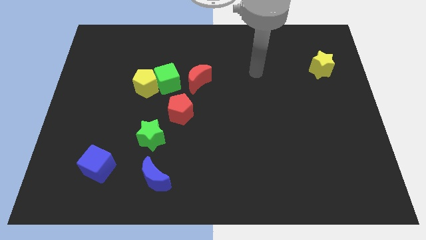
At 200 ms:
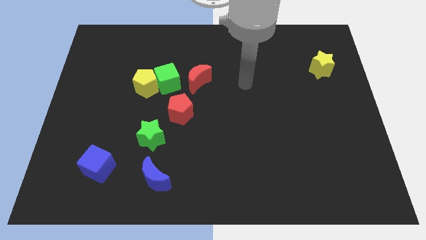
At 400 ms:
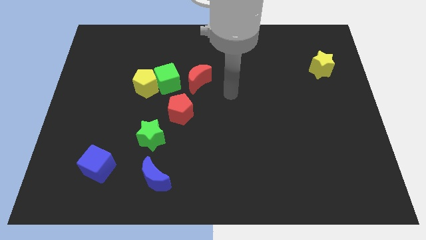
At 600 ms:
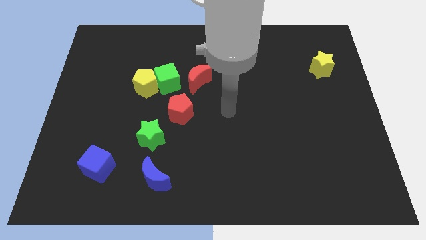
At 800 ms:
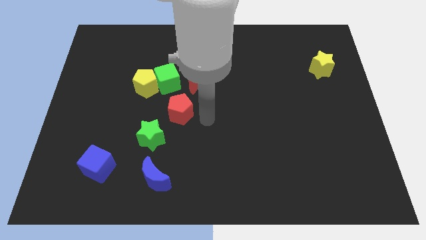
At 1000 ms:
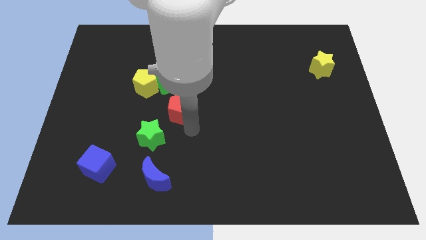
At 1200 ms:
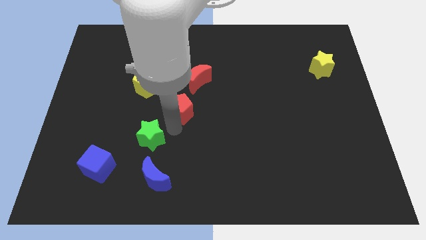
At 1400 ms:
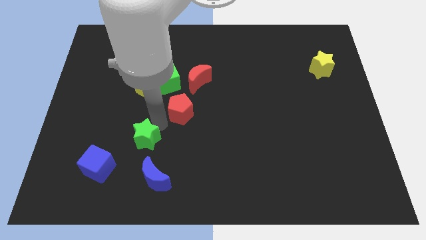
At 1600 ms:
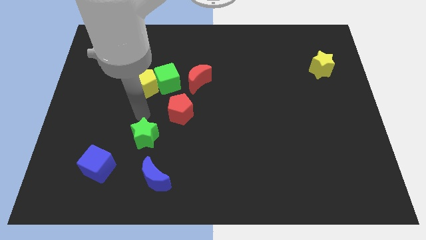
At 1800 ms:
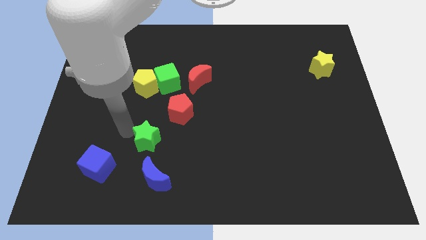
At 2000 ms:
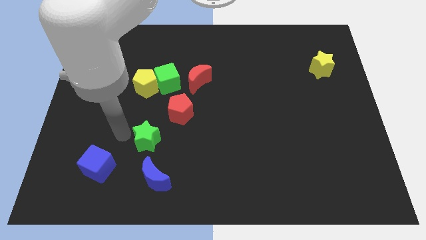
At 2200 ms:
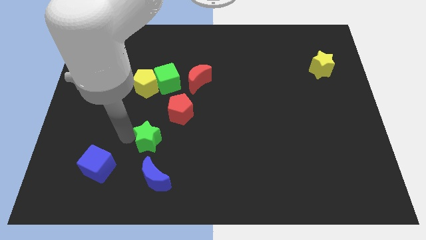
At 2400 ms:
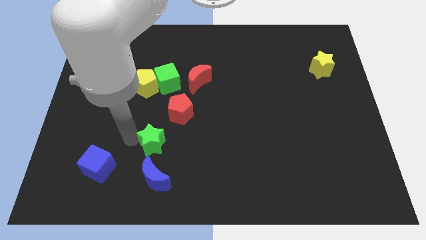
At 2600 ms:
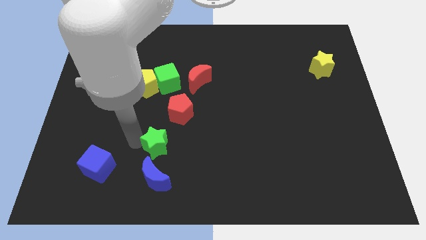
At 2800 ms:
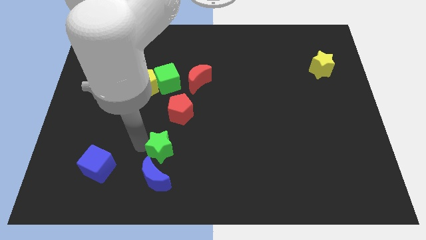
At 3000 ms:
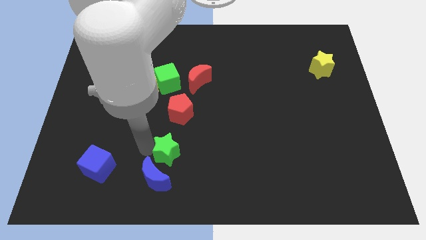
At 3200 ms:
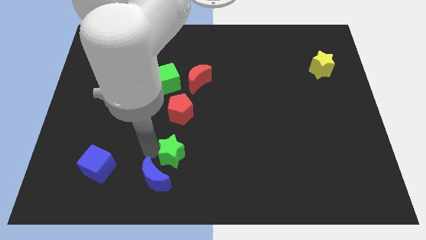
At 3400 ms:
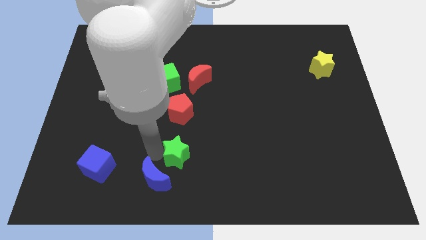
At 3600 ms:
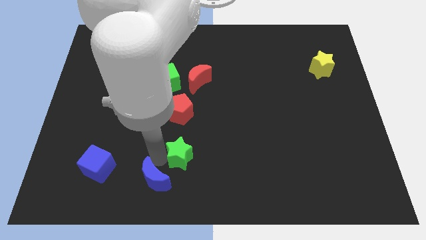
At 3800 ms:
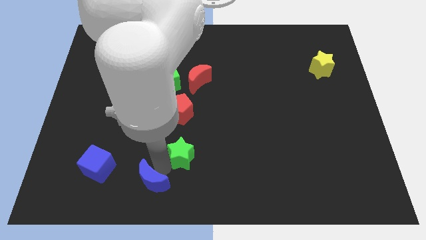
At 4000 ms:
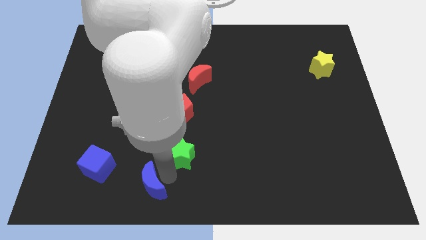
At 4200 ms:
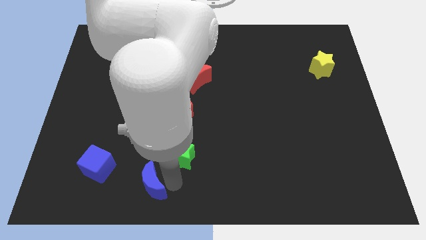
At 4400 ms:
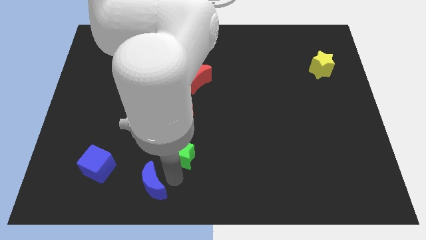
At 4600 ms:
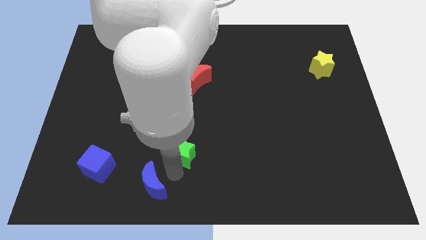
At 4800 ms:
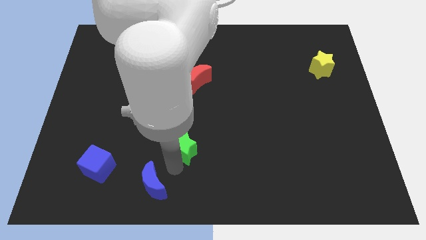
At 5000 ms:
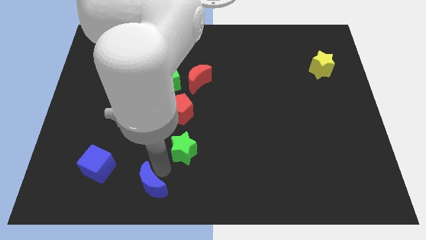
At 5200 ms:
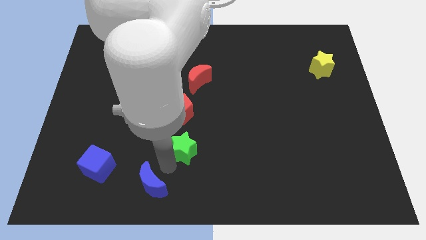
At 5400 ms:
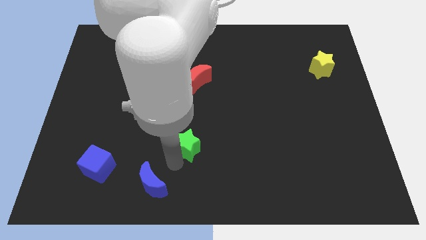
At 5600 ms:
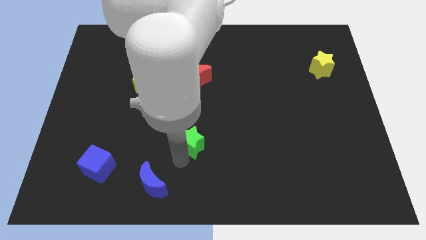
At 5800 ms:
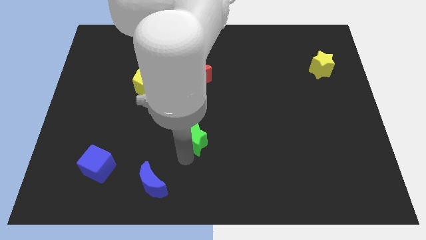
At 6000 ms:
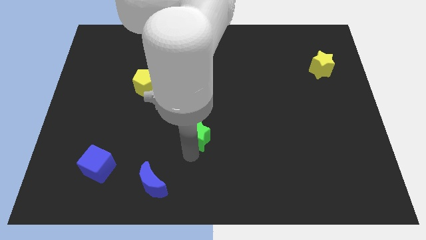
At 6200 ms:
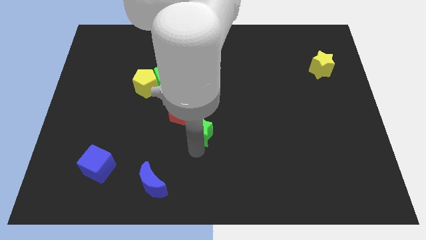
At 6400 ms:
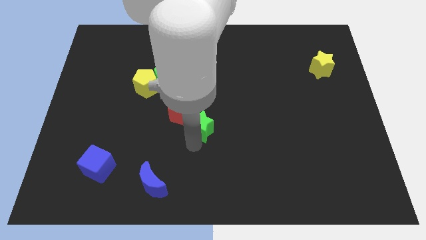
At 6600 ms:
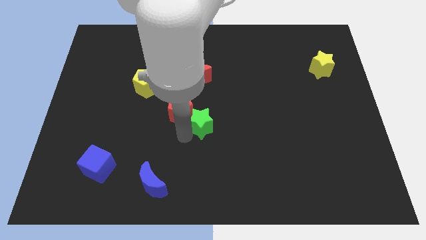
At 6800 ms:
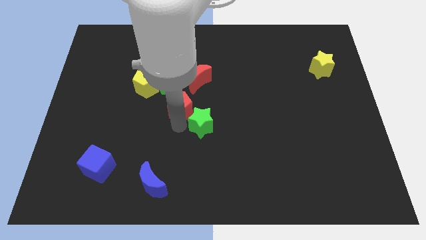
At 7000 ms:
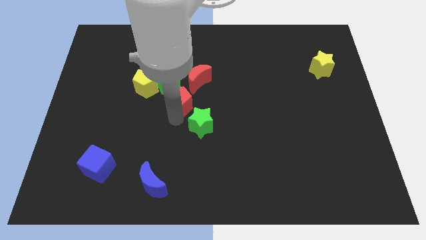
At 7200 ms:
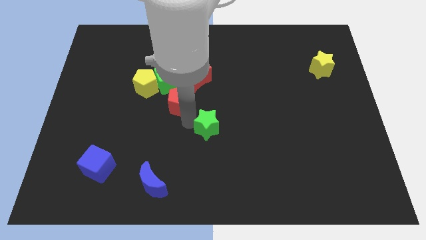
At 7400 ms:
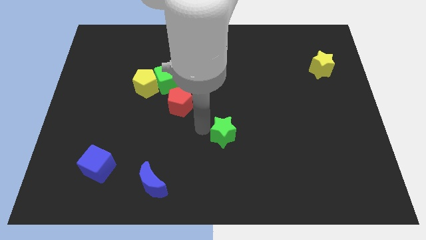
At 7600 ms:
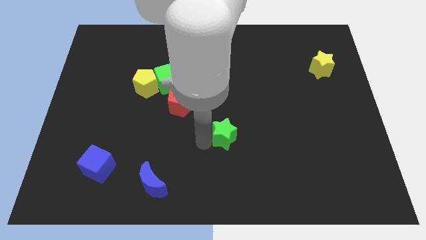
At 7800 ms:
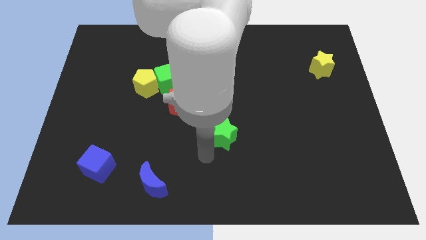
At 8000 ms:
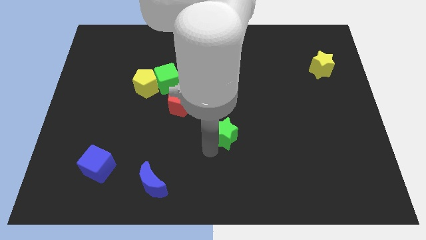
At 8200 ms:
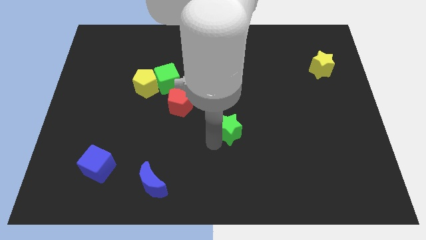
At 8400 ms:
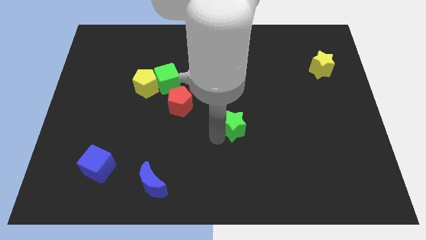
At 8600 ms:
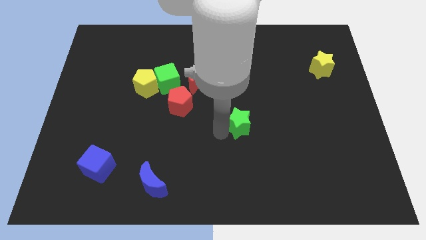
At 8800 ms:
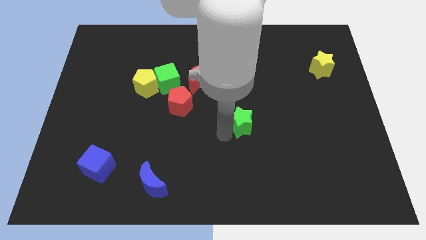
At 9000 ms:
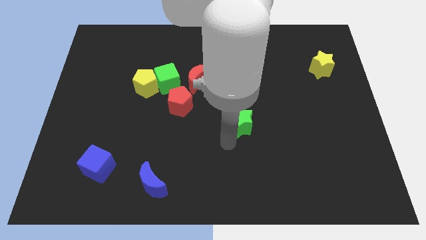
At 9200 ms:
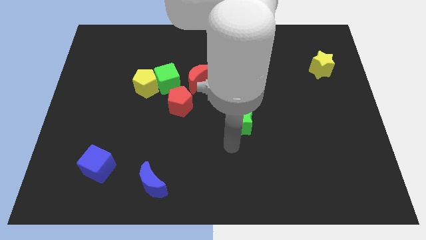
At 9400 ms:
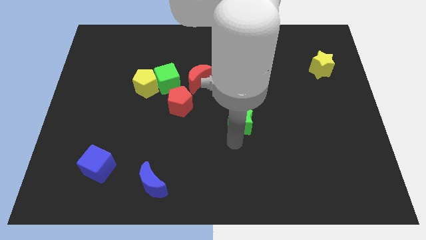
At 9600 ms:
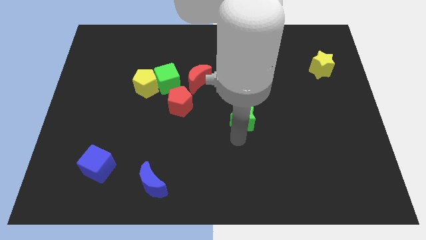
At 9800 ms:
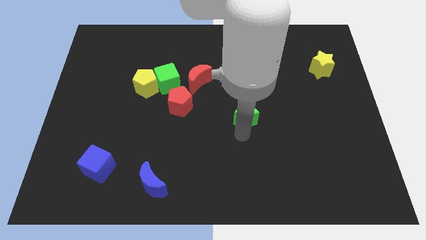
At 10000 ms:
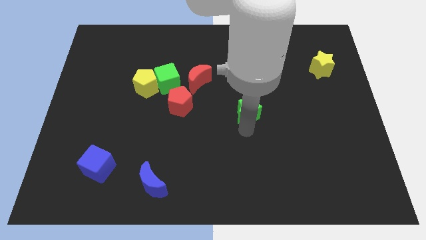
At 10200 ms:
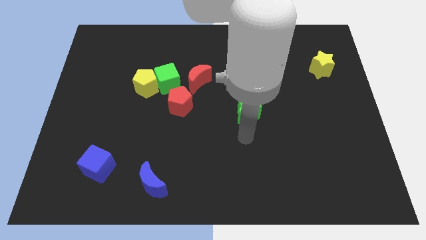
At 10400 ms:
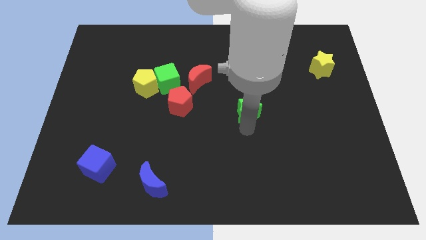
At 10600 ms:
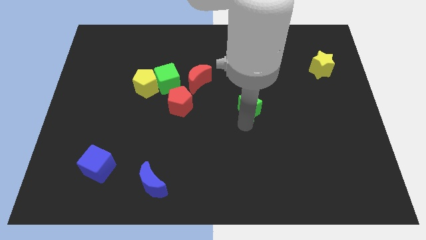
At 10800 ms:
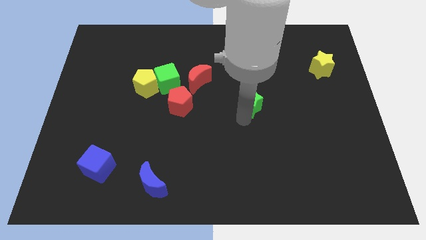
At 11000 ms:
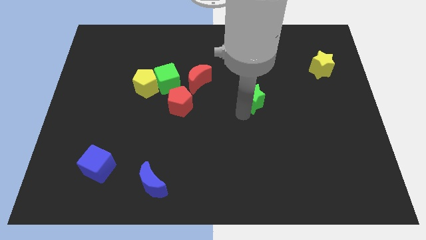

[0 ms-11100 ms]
move the green star diagonally upwards and to the right

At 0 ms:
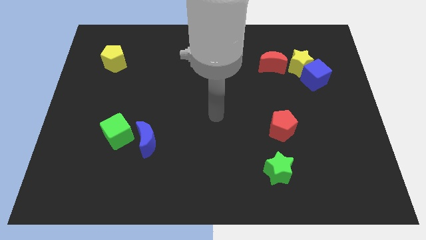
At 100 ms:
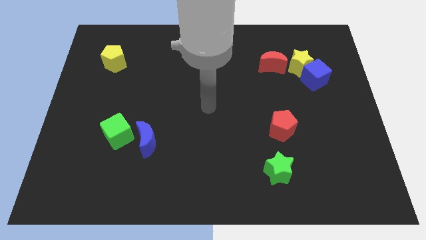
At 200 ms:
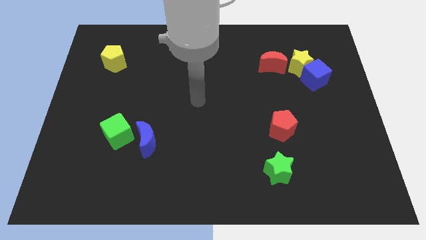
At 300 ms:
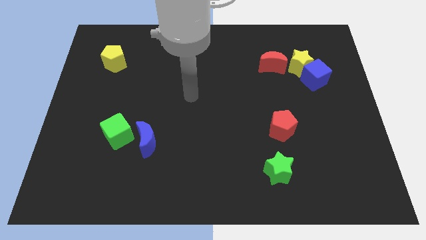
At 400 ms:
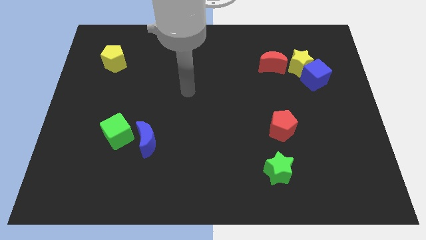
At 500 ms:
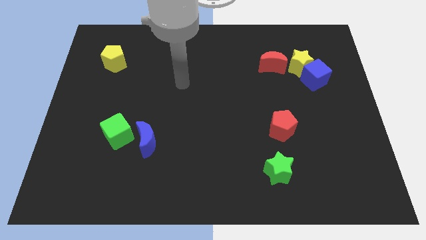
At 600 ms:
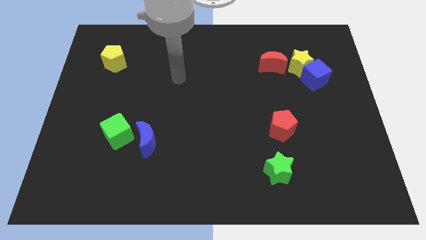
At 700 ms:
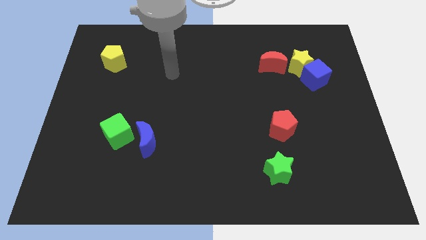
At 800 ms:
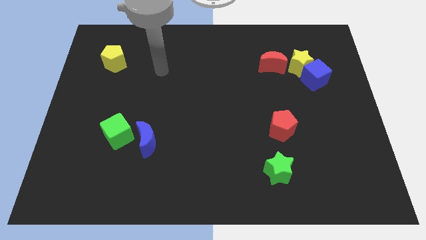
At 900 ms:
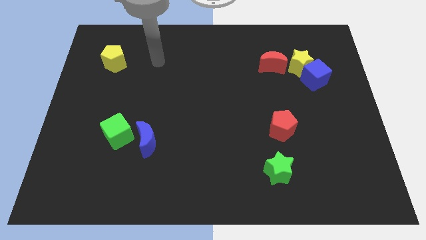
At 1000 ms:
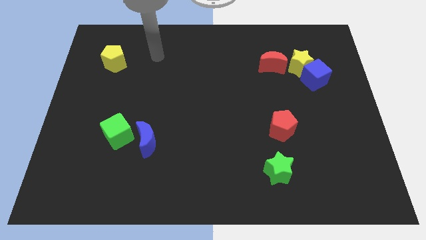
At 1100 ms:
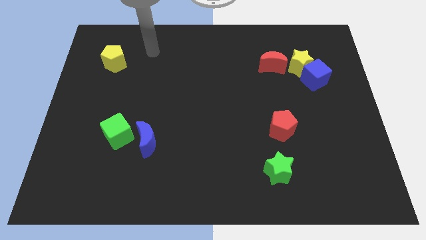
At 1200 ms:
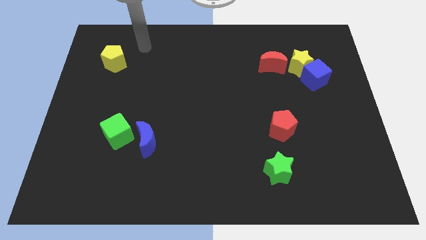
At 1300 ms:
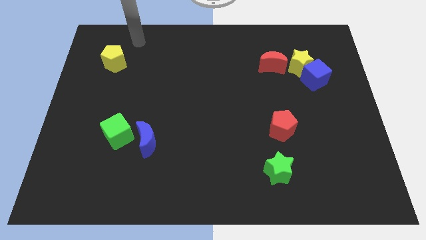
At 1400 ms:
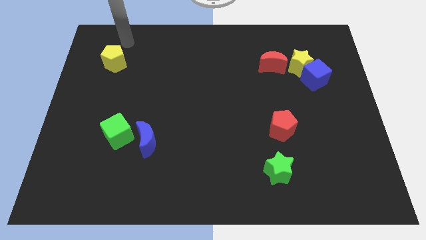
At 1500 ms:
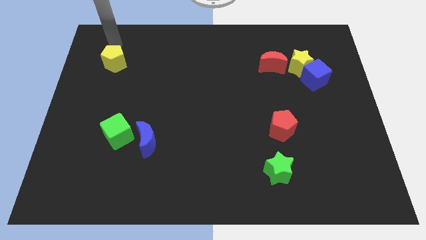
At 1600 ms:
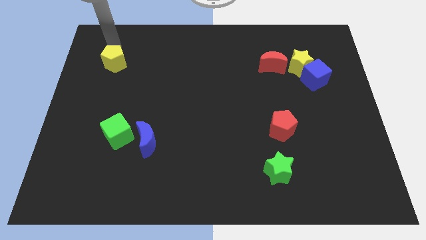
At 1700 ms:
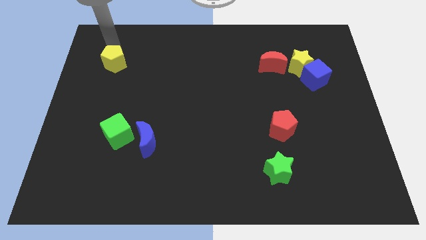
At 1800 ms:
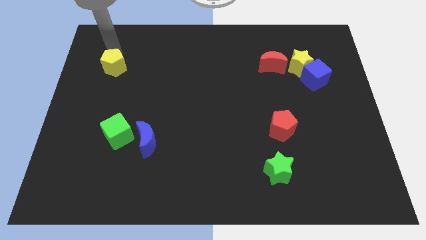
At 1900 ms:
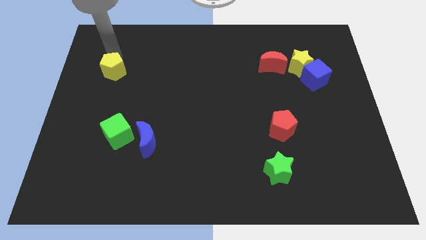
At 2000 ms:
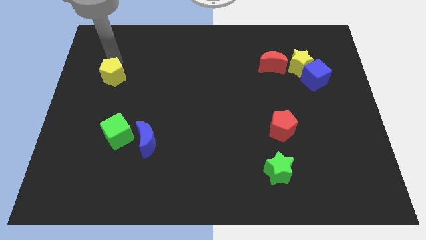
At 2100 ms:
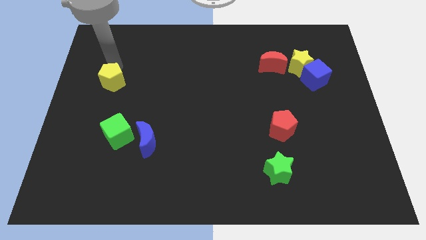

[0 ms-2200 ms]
move the yellow pentagon downwards a little bit

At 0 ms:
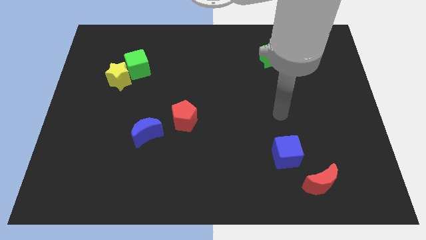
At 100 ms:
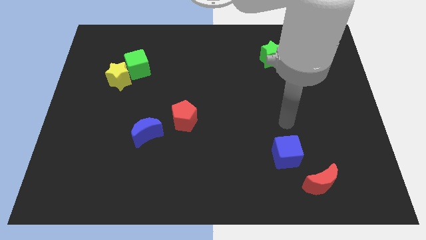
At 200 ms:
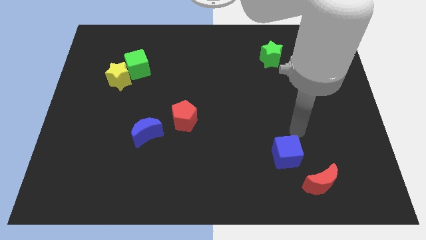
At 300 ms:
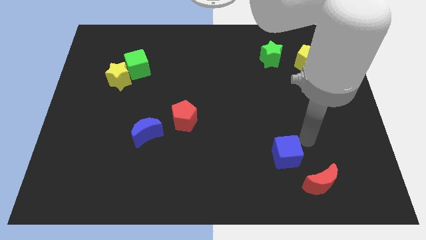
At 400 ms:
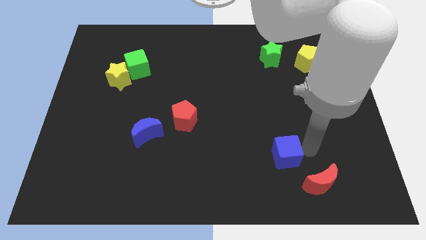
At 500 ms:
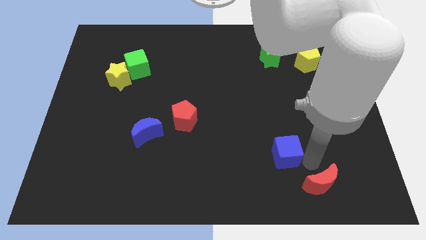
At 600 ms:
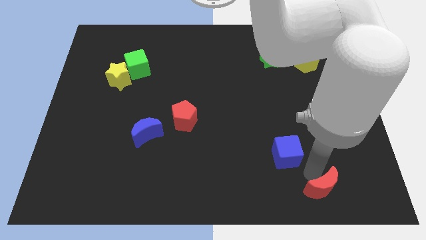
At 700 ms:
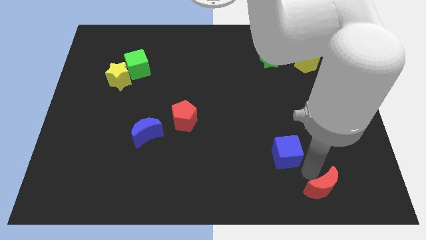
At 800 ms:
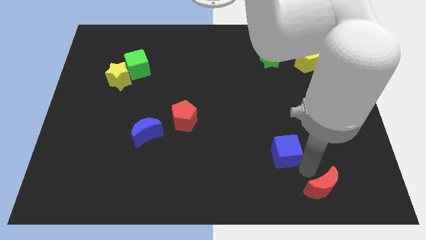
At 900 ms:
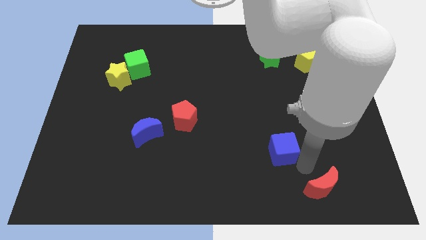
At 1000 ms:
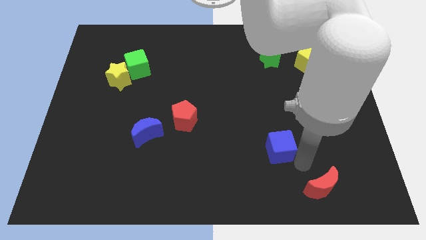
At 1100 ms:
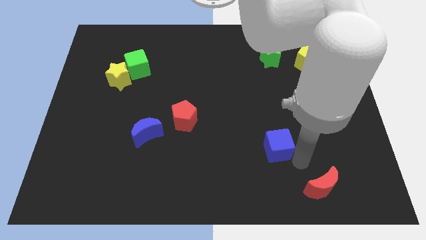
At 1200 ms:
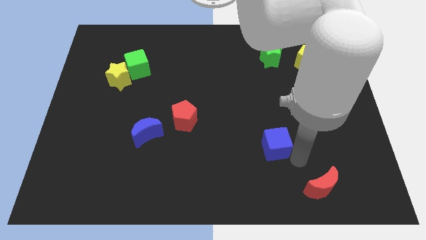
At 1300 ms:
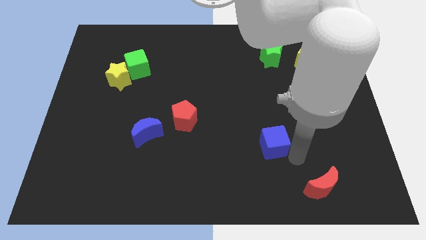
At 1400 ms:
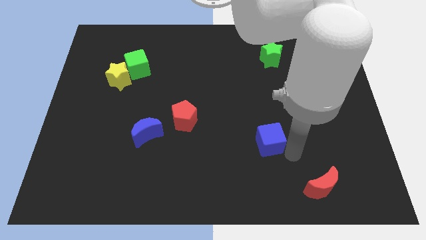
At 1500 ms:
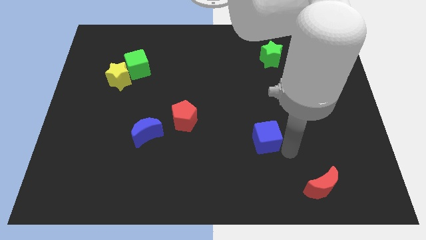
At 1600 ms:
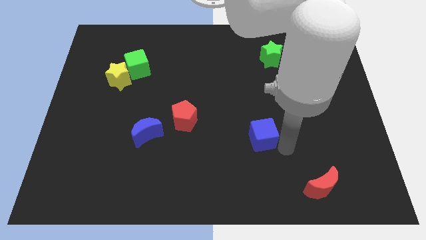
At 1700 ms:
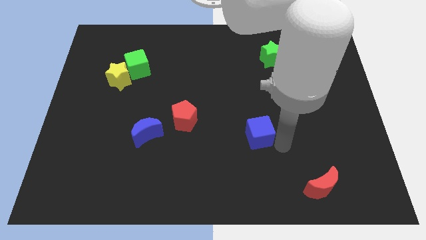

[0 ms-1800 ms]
slide the blue cube up and then left somewhat
